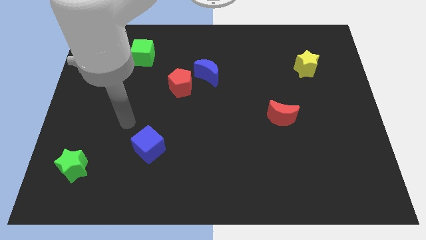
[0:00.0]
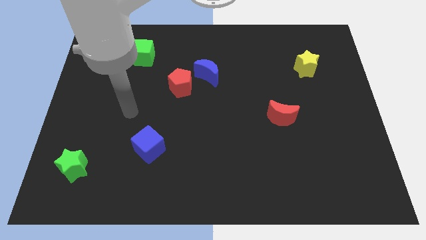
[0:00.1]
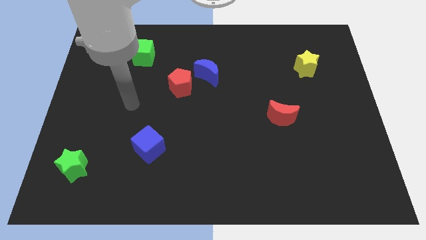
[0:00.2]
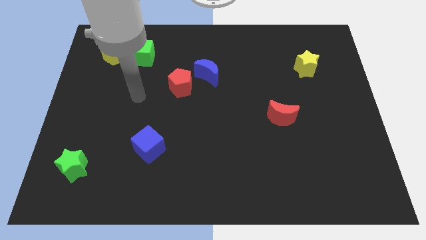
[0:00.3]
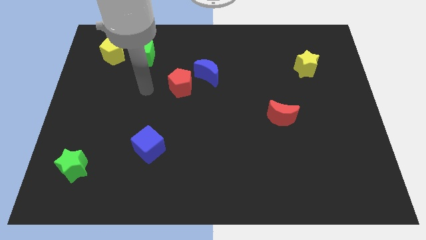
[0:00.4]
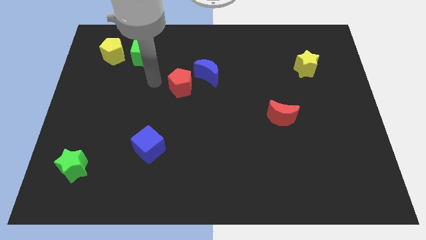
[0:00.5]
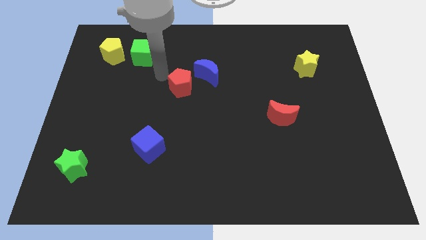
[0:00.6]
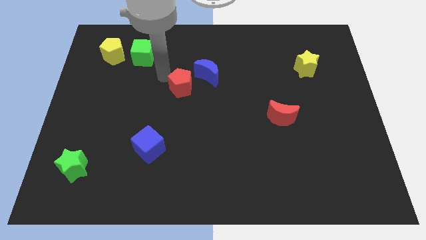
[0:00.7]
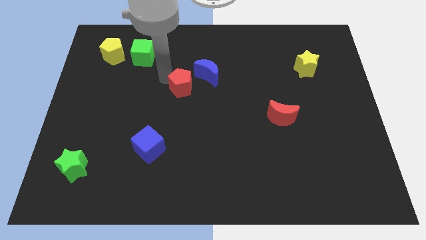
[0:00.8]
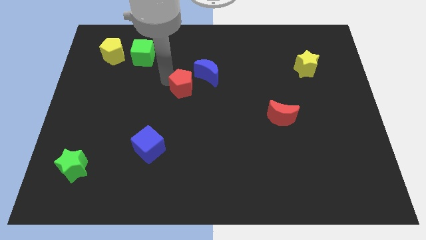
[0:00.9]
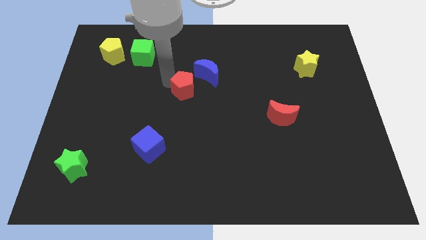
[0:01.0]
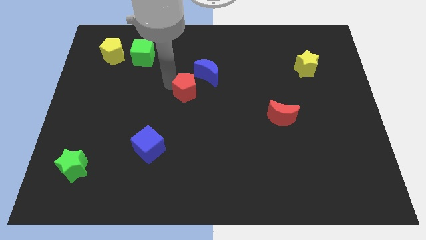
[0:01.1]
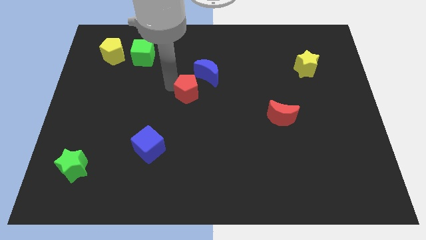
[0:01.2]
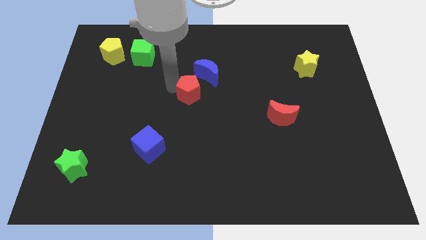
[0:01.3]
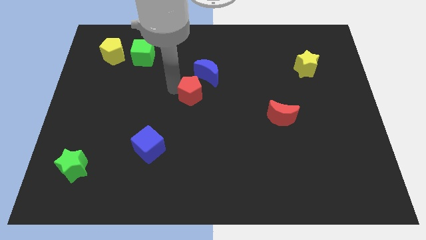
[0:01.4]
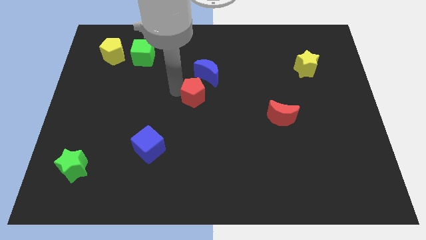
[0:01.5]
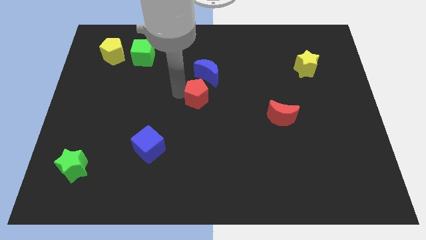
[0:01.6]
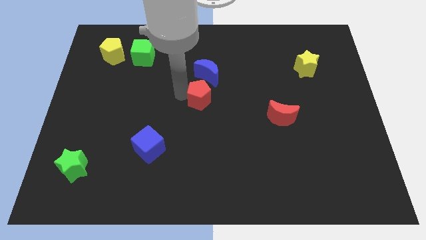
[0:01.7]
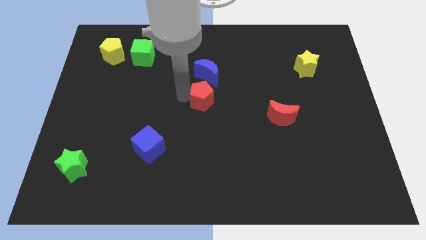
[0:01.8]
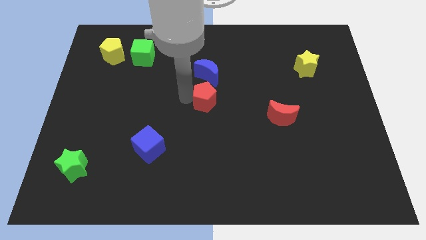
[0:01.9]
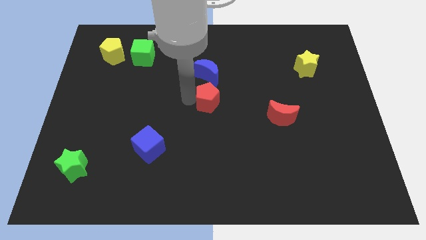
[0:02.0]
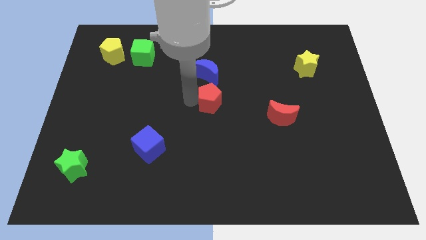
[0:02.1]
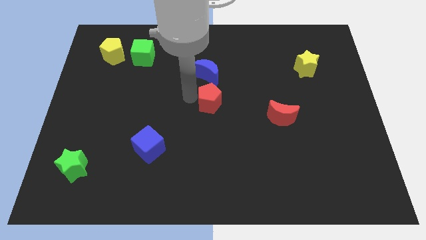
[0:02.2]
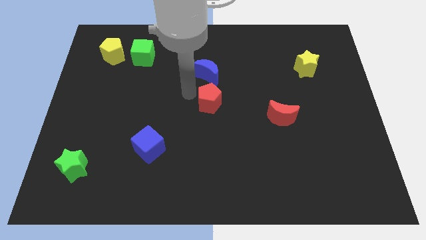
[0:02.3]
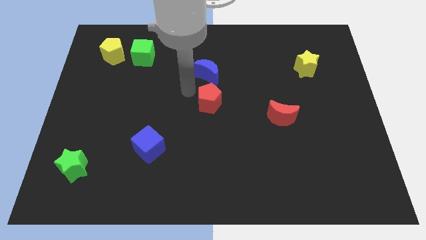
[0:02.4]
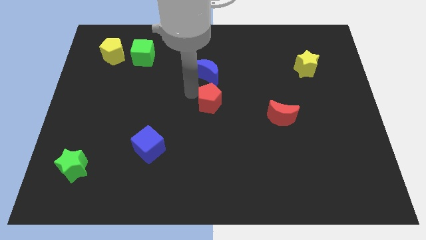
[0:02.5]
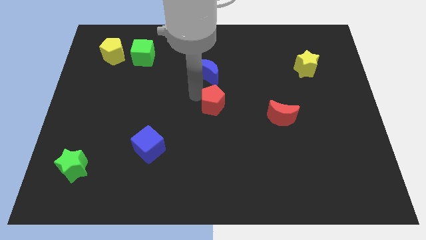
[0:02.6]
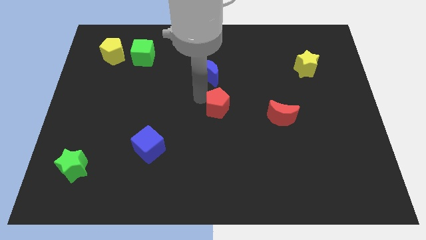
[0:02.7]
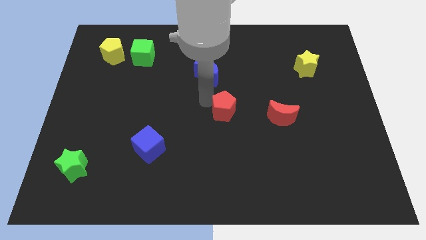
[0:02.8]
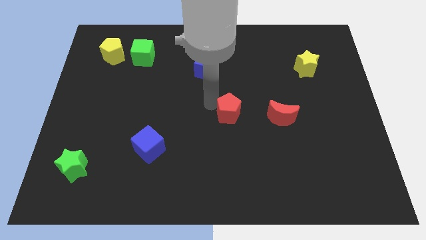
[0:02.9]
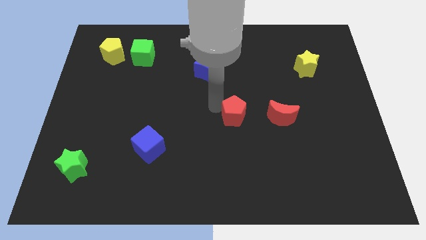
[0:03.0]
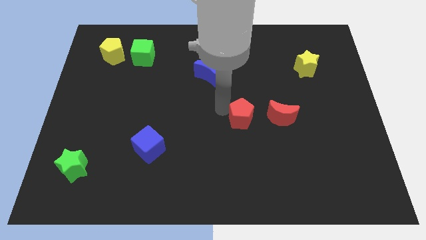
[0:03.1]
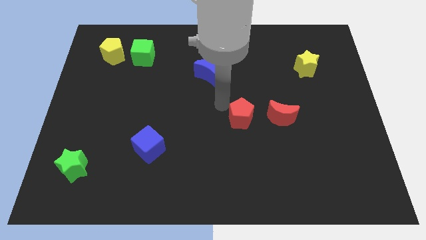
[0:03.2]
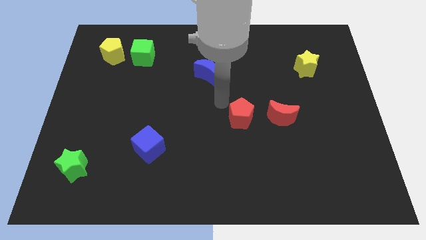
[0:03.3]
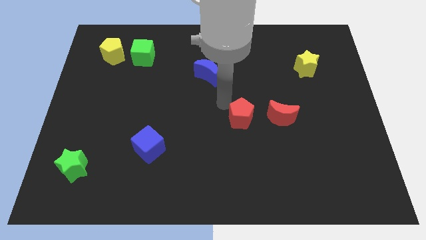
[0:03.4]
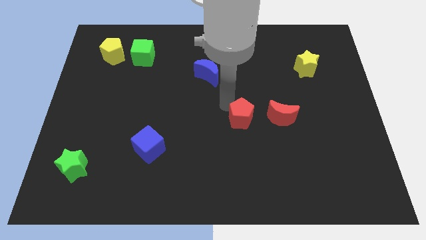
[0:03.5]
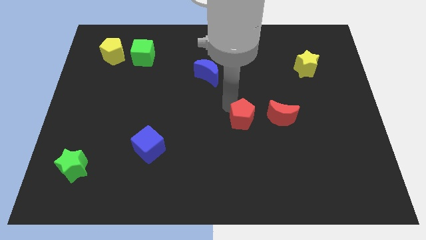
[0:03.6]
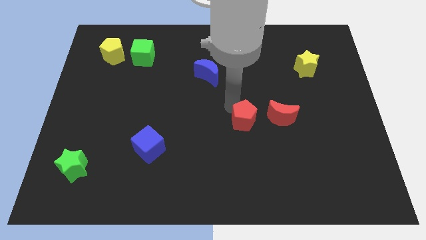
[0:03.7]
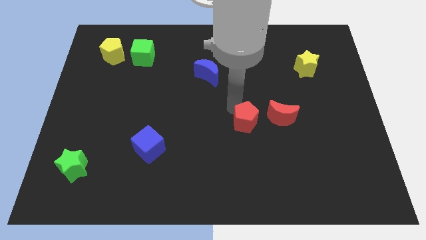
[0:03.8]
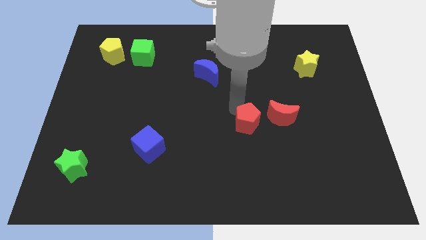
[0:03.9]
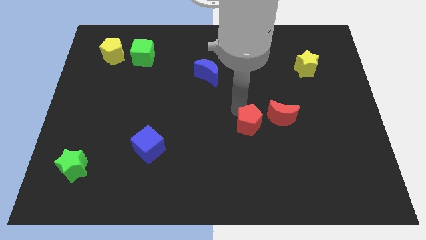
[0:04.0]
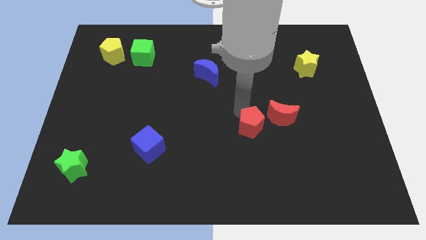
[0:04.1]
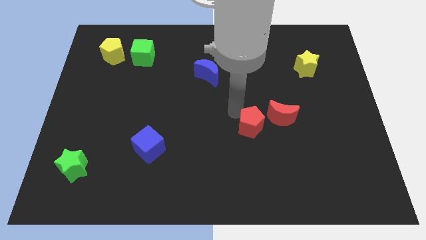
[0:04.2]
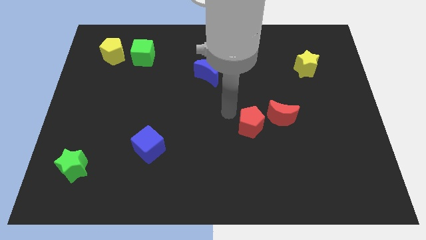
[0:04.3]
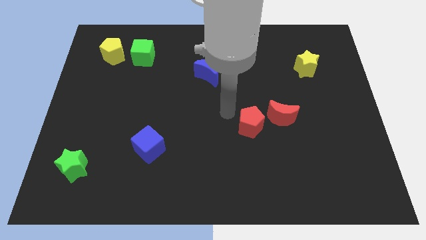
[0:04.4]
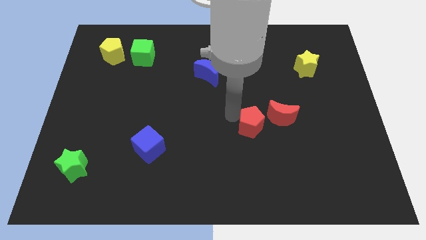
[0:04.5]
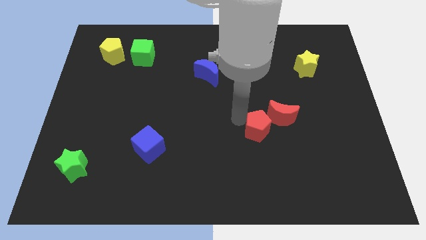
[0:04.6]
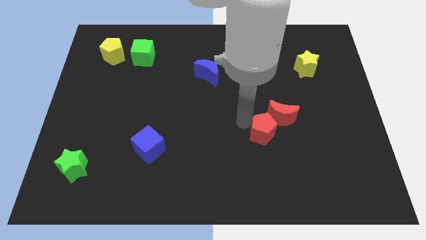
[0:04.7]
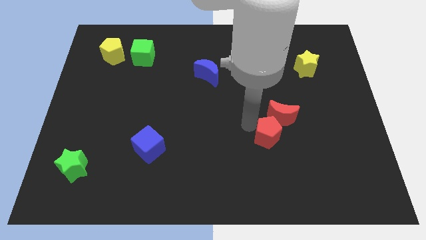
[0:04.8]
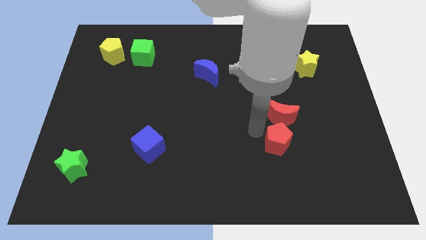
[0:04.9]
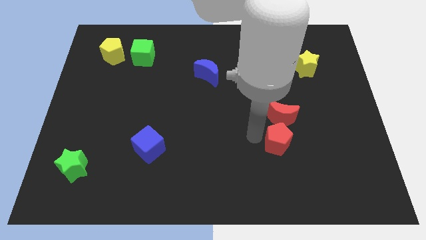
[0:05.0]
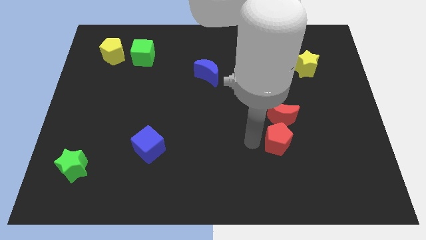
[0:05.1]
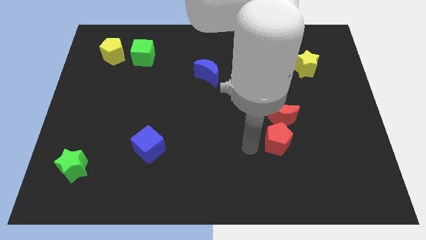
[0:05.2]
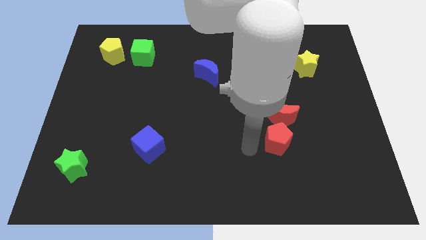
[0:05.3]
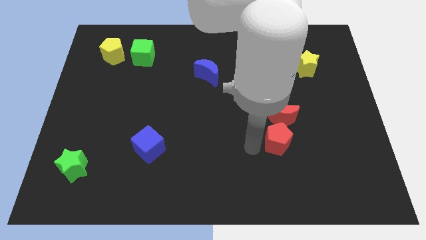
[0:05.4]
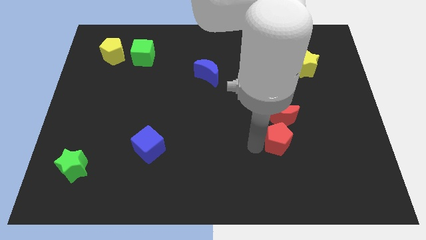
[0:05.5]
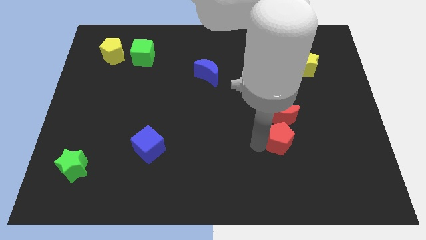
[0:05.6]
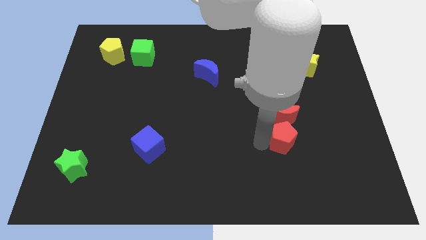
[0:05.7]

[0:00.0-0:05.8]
slide the red pentagon to the bottom right side of the red moon

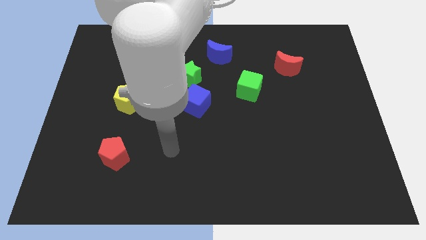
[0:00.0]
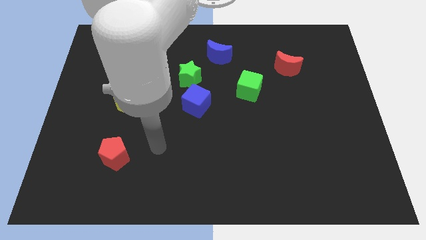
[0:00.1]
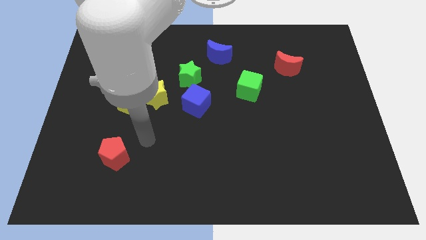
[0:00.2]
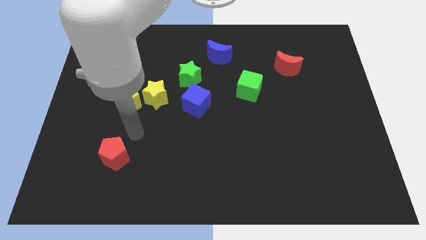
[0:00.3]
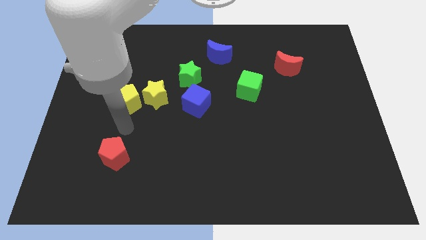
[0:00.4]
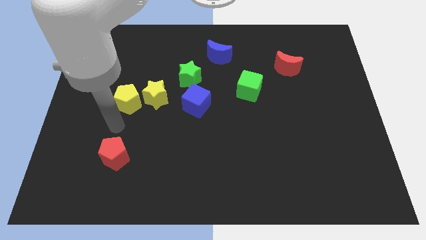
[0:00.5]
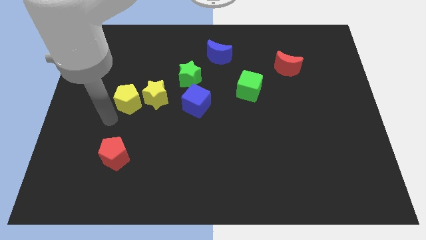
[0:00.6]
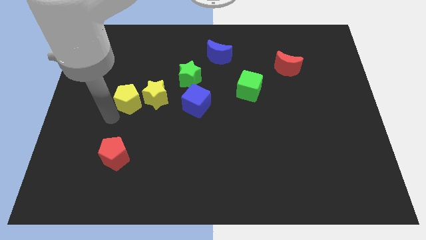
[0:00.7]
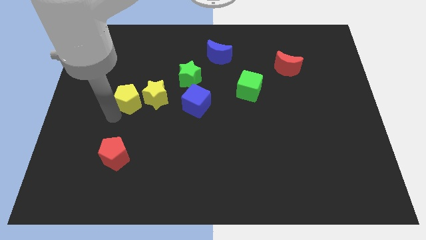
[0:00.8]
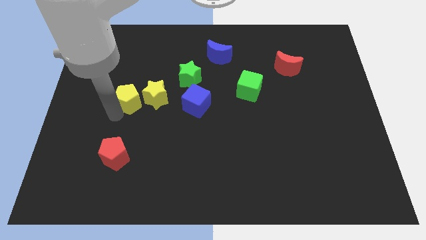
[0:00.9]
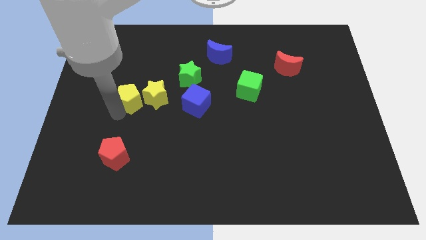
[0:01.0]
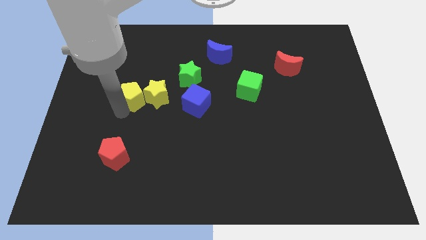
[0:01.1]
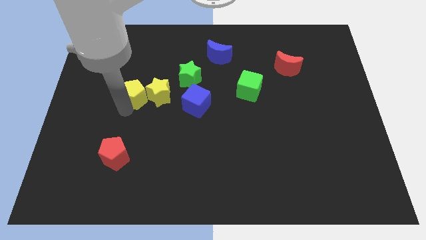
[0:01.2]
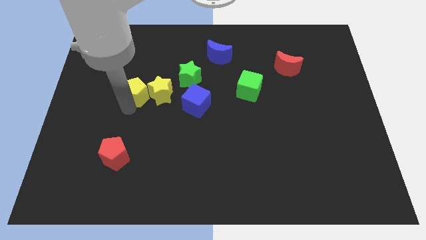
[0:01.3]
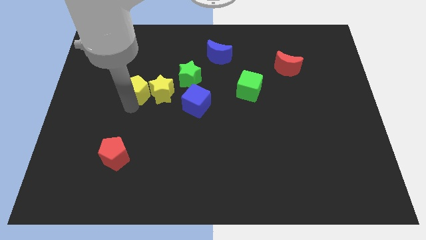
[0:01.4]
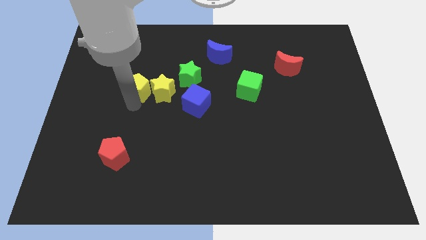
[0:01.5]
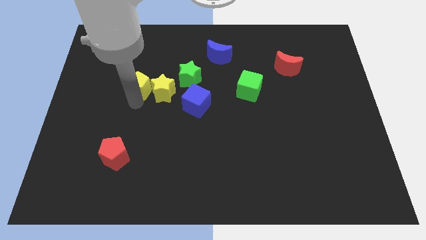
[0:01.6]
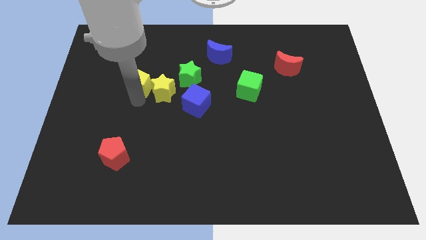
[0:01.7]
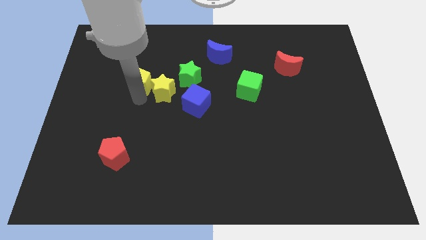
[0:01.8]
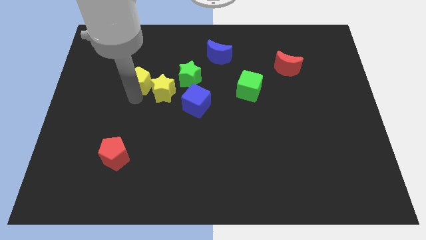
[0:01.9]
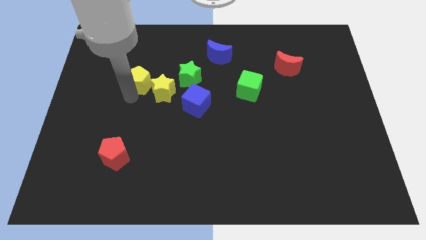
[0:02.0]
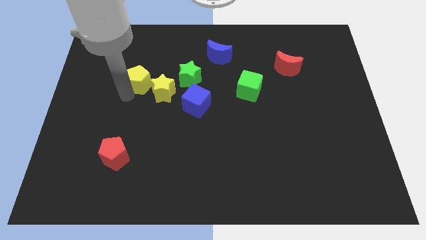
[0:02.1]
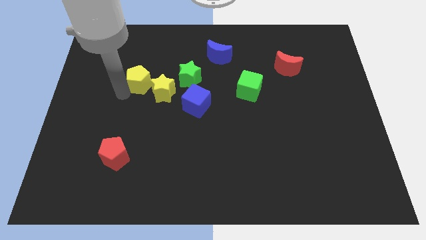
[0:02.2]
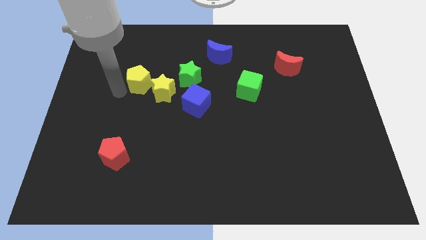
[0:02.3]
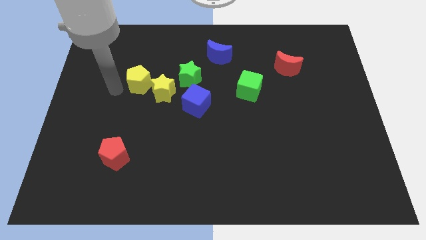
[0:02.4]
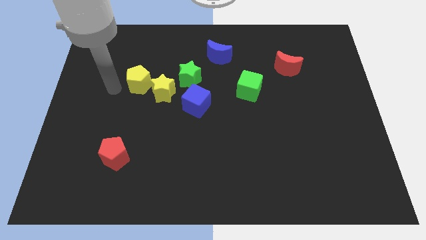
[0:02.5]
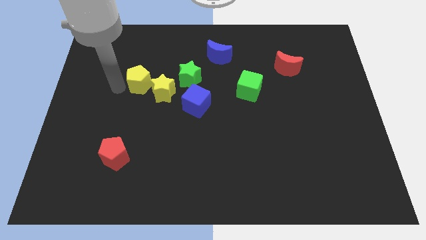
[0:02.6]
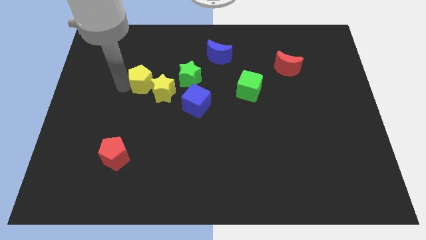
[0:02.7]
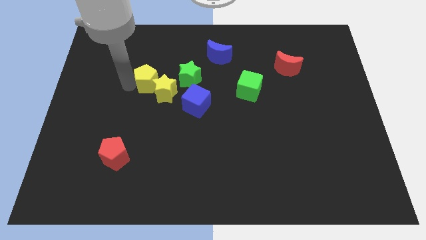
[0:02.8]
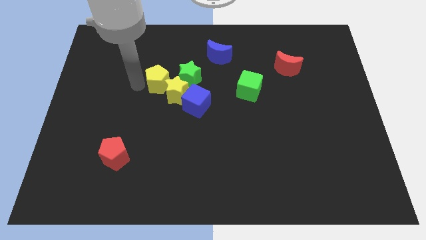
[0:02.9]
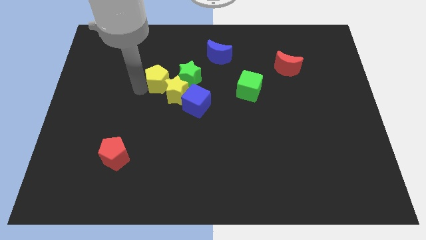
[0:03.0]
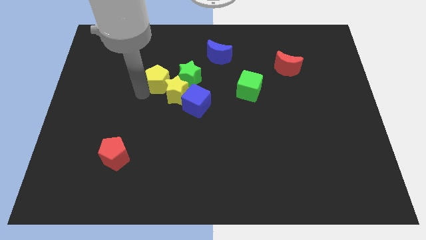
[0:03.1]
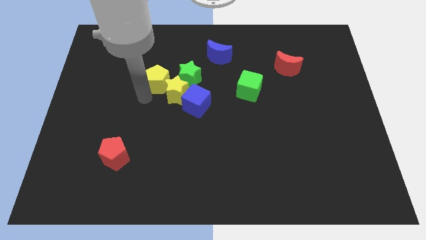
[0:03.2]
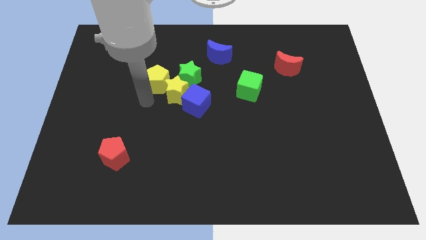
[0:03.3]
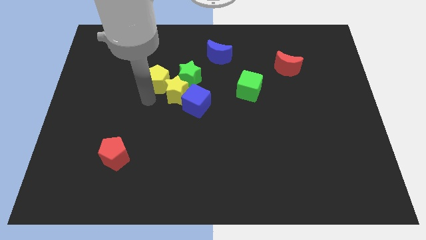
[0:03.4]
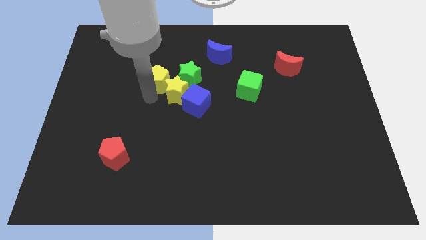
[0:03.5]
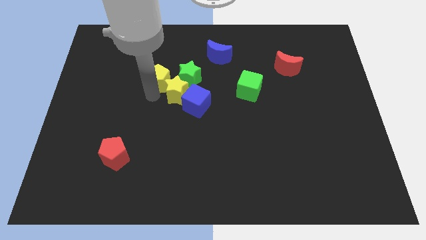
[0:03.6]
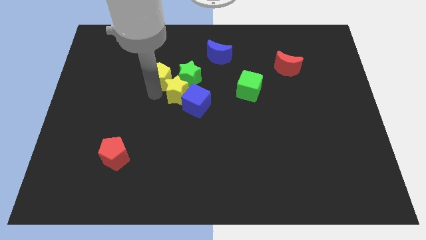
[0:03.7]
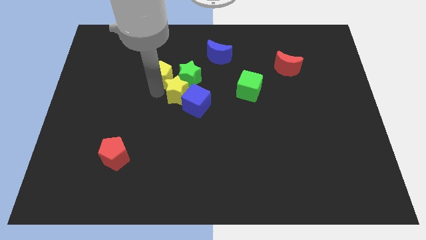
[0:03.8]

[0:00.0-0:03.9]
move the yellow pentagon to the top left side of the green star
